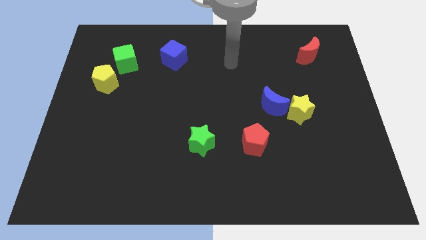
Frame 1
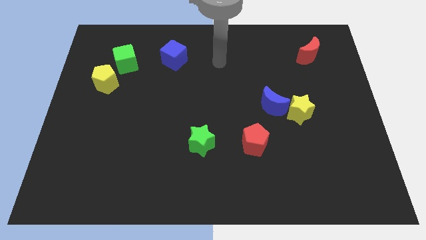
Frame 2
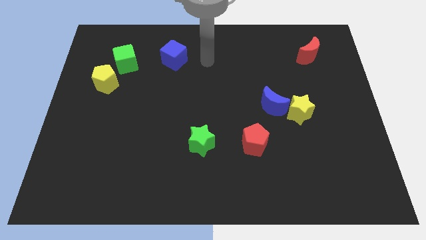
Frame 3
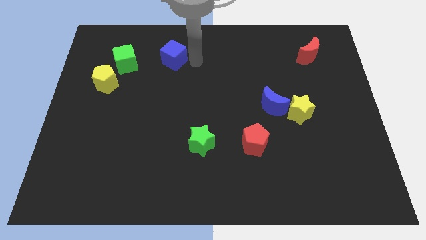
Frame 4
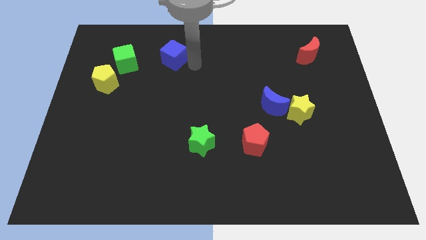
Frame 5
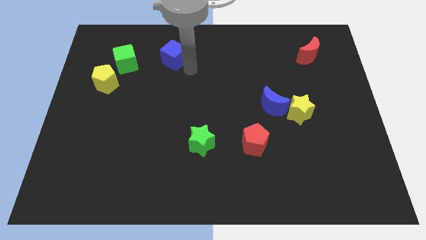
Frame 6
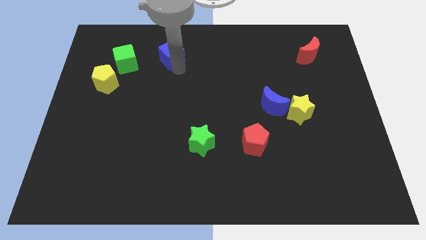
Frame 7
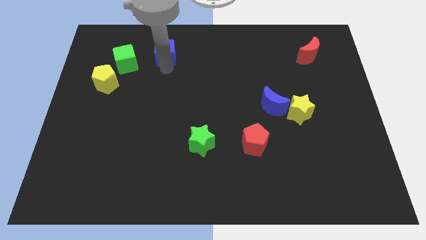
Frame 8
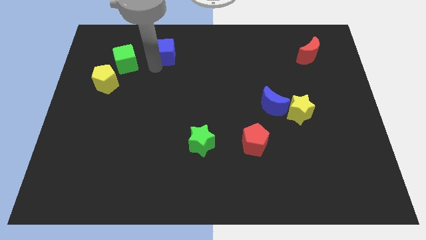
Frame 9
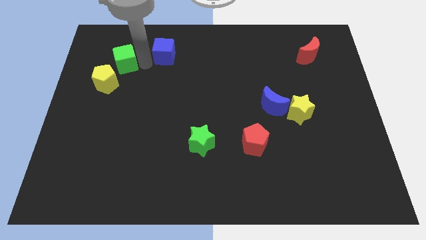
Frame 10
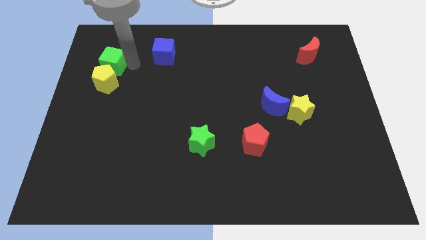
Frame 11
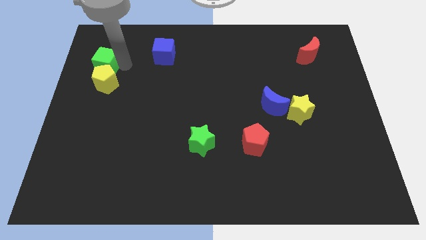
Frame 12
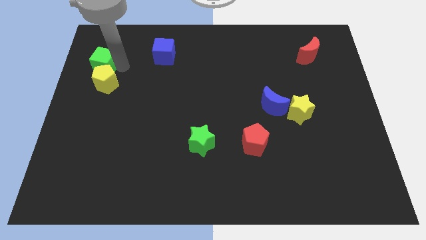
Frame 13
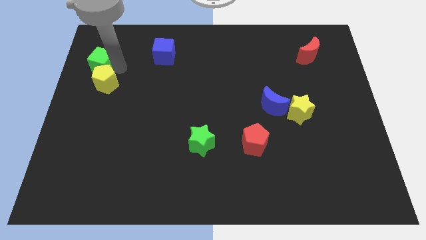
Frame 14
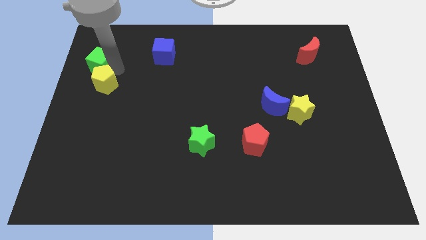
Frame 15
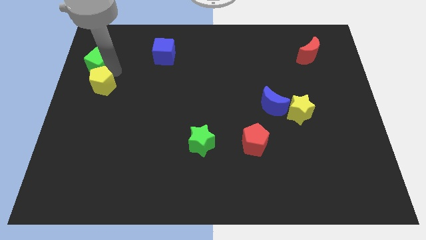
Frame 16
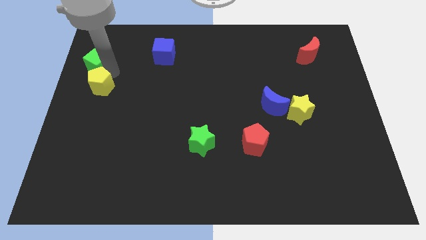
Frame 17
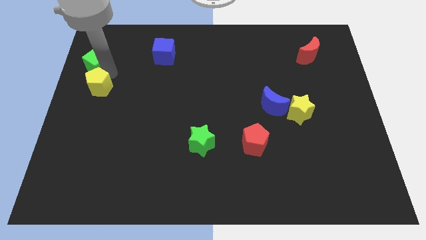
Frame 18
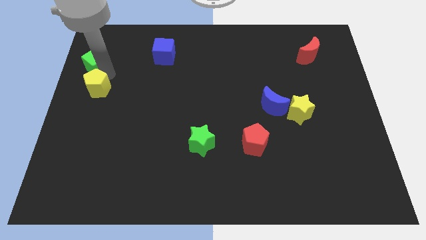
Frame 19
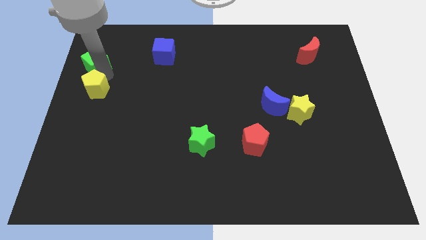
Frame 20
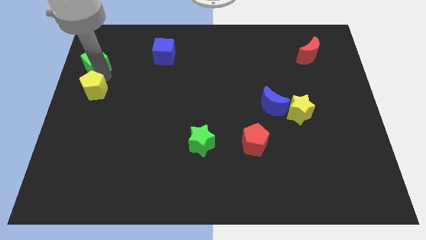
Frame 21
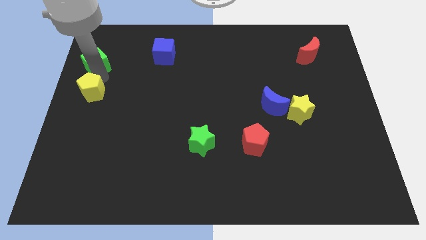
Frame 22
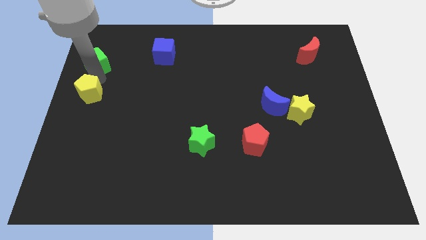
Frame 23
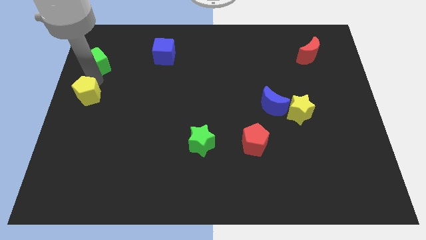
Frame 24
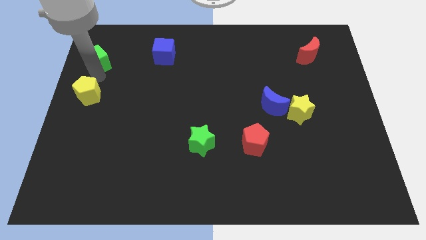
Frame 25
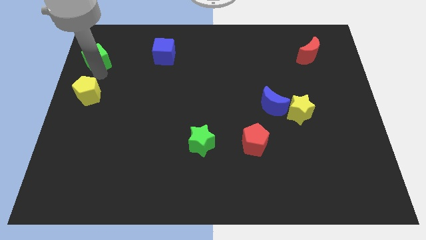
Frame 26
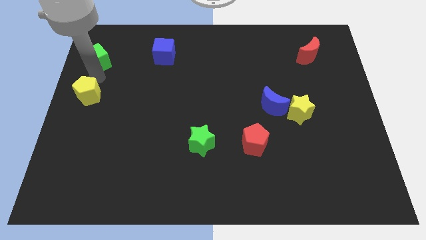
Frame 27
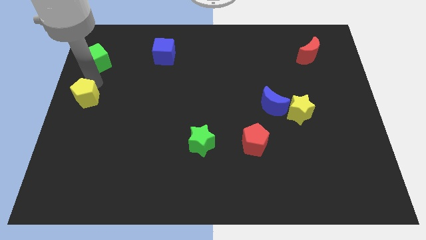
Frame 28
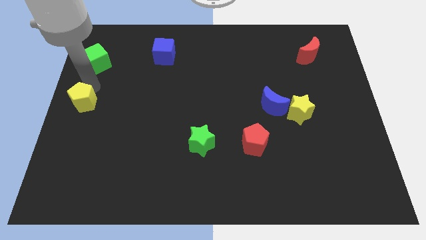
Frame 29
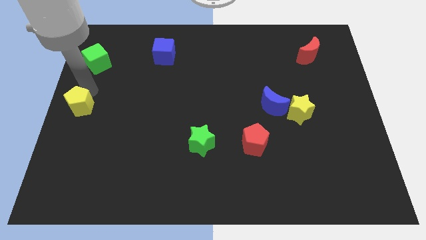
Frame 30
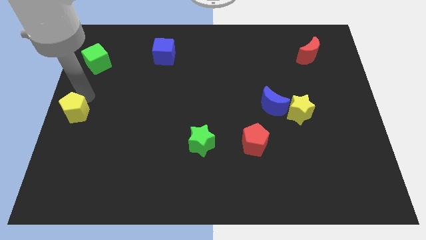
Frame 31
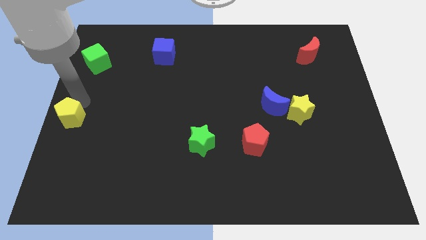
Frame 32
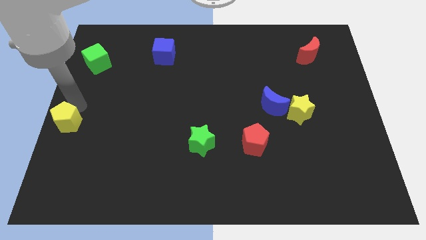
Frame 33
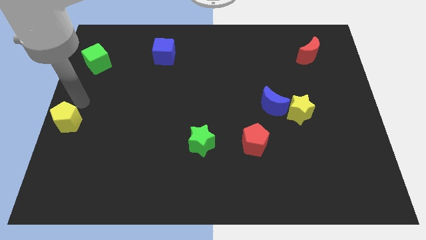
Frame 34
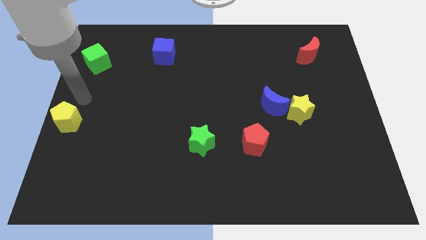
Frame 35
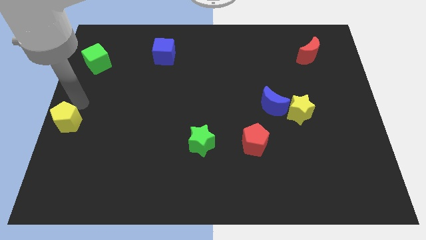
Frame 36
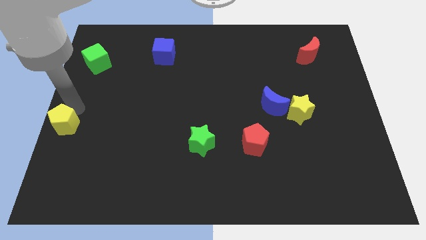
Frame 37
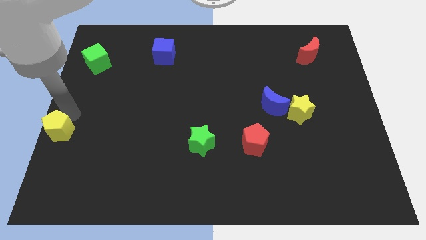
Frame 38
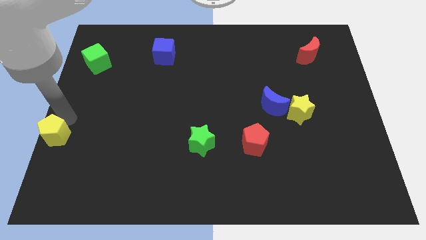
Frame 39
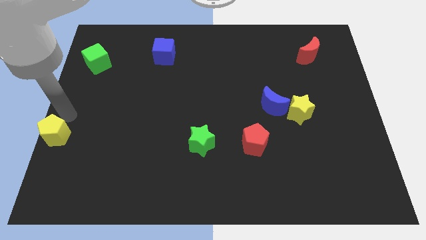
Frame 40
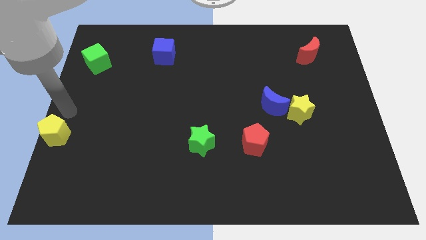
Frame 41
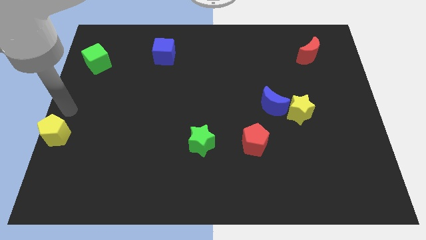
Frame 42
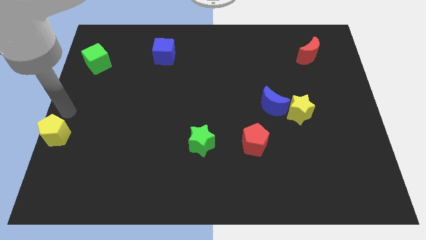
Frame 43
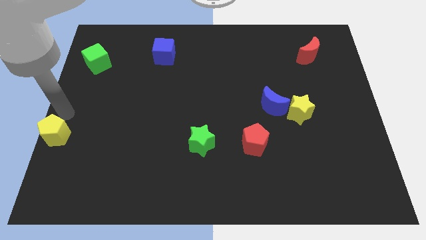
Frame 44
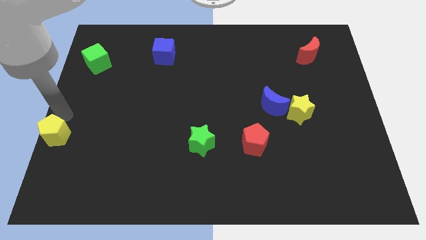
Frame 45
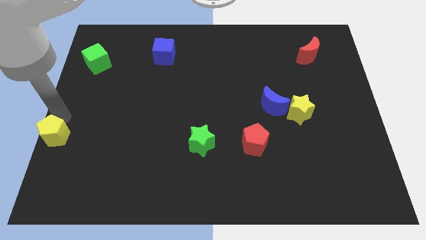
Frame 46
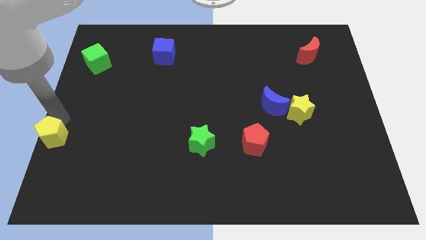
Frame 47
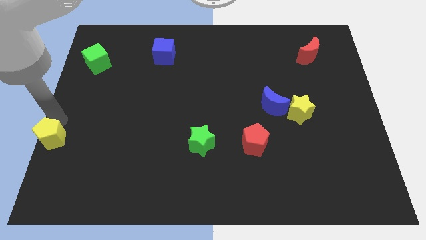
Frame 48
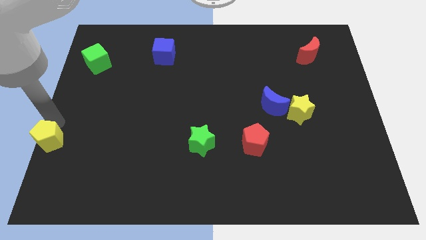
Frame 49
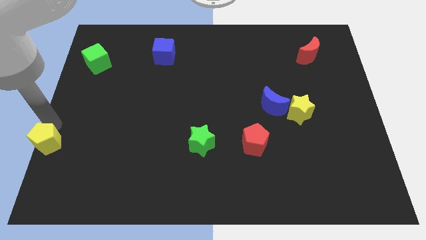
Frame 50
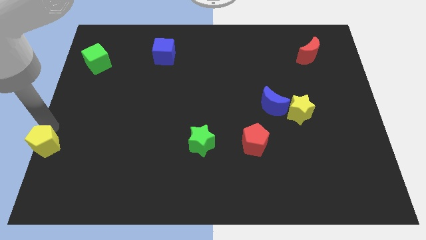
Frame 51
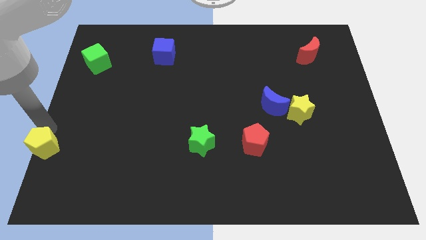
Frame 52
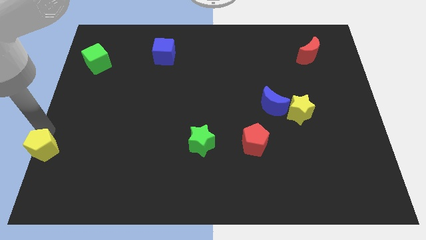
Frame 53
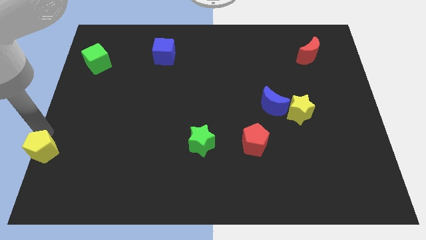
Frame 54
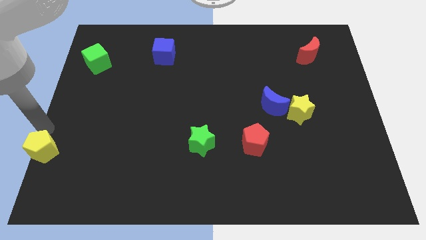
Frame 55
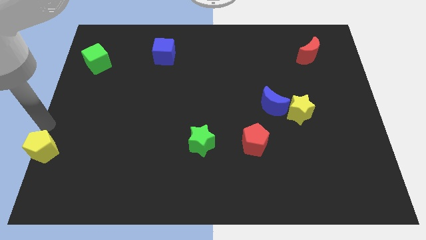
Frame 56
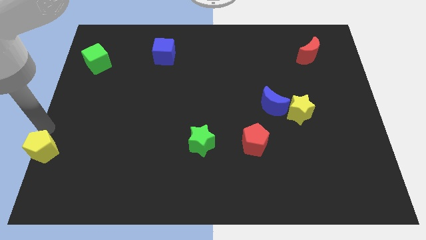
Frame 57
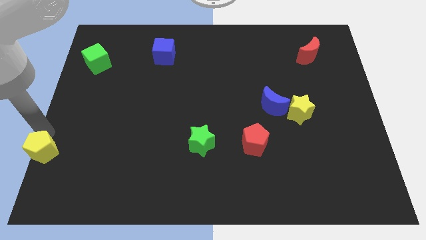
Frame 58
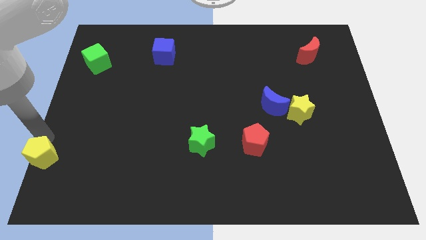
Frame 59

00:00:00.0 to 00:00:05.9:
move the yellow pentagon to the bottom left

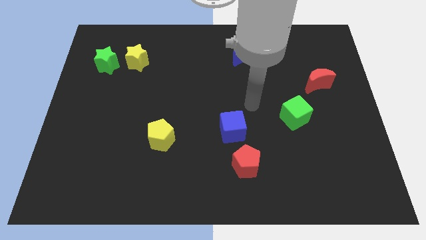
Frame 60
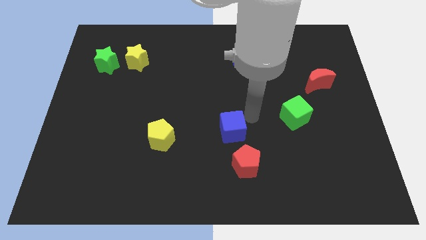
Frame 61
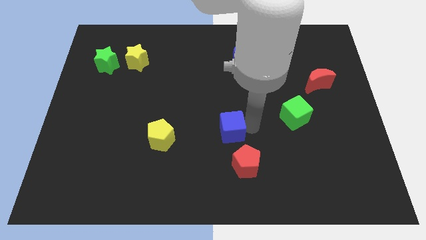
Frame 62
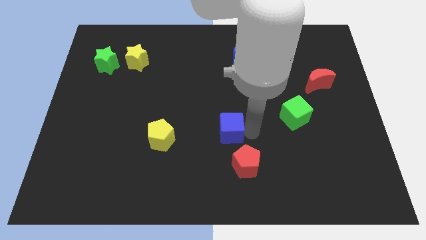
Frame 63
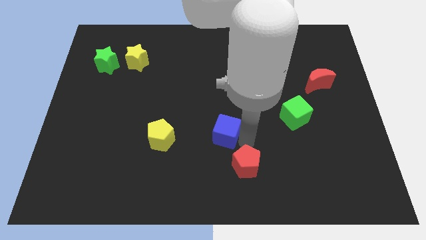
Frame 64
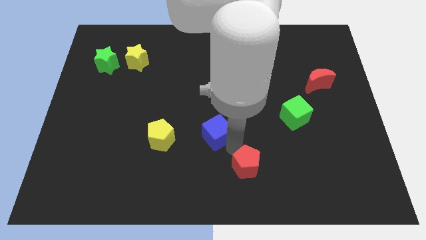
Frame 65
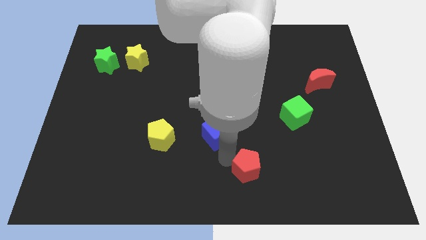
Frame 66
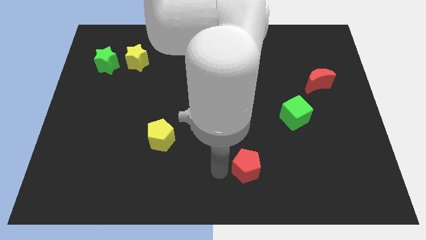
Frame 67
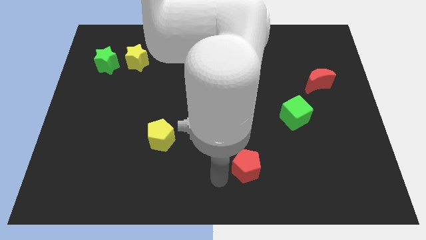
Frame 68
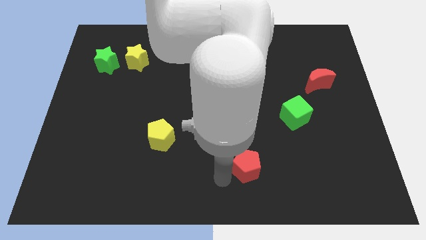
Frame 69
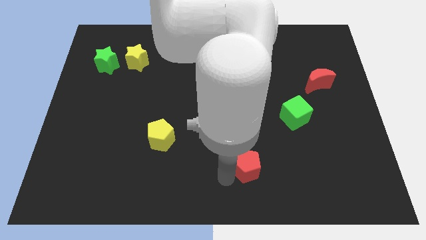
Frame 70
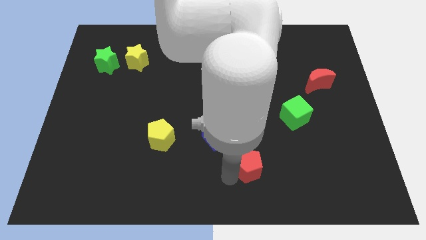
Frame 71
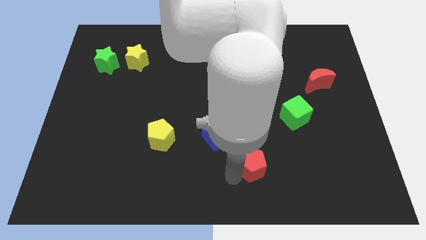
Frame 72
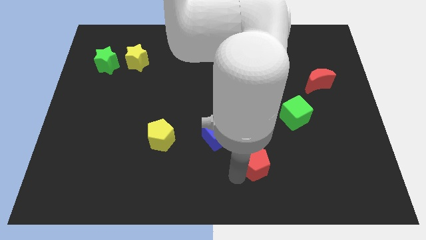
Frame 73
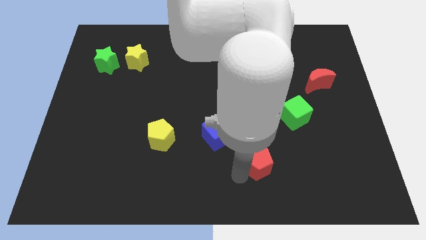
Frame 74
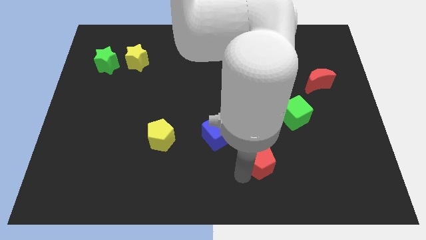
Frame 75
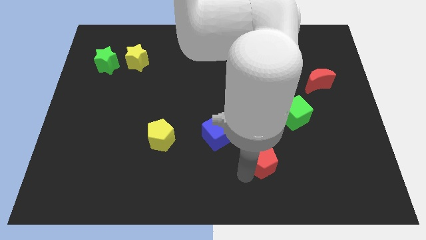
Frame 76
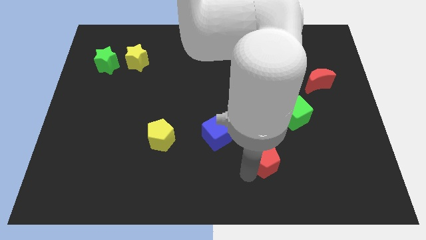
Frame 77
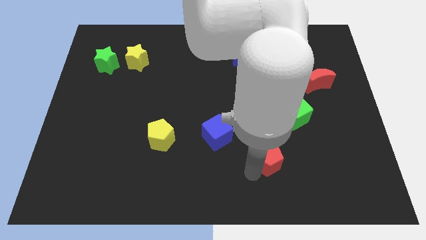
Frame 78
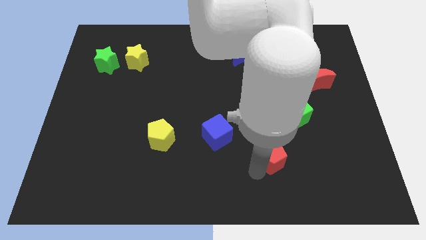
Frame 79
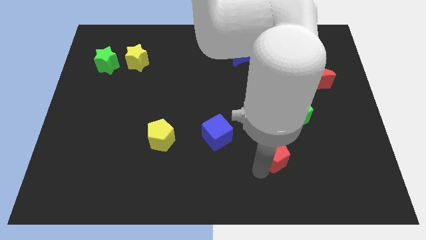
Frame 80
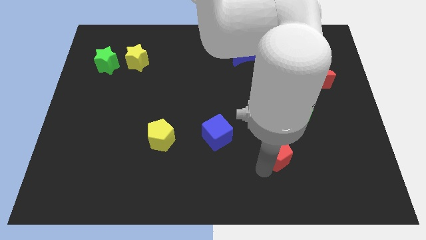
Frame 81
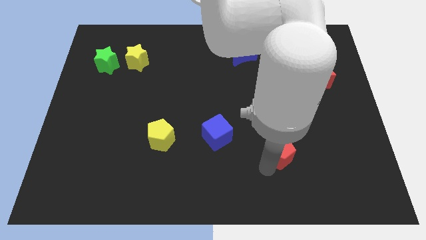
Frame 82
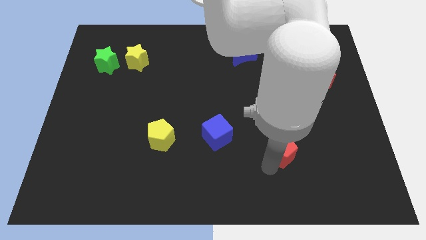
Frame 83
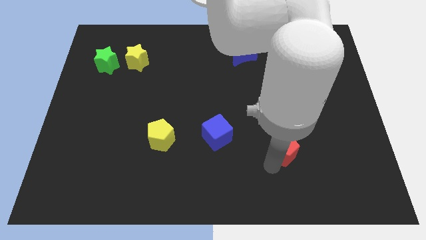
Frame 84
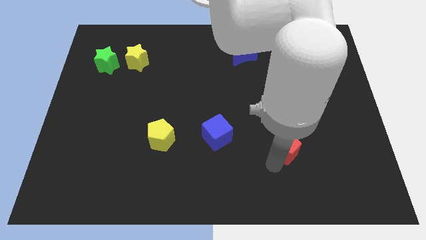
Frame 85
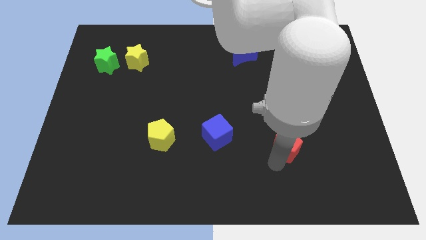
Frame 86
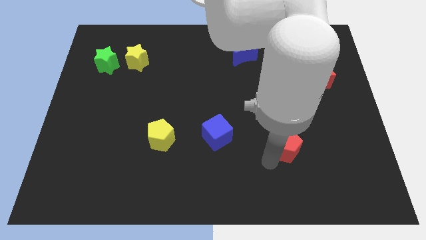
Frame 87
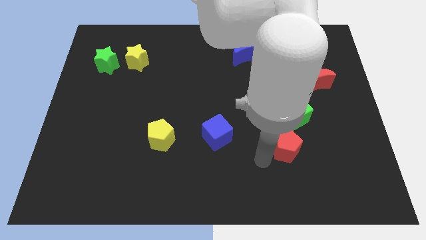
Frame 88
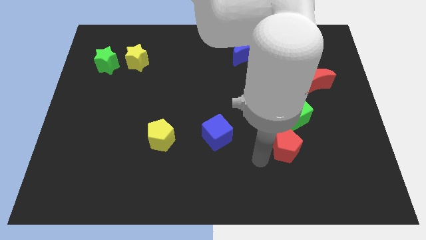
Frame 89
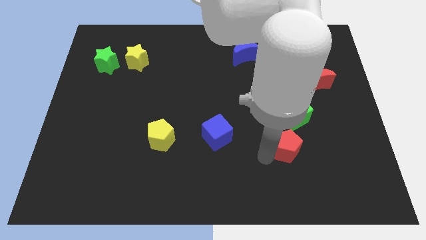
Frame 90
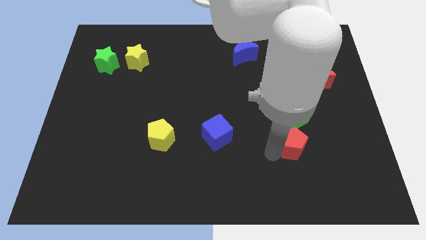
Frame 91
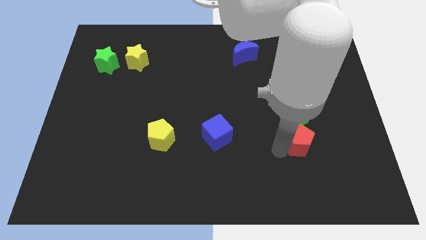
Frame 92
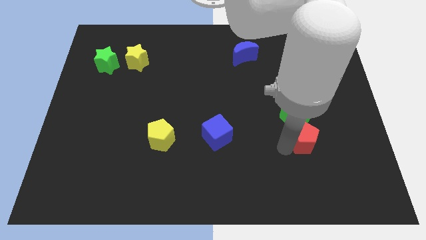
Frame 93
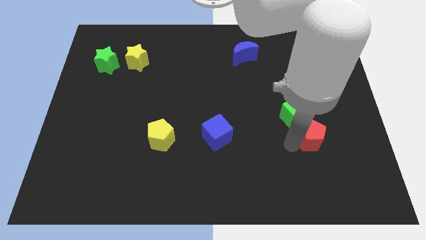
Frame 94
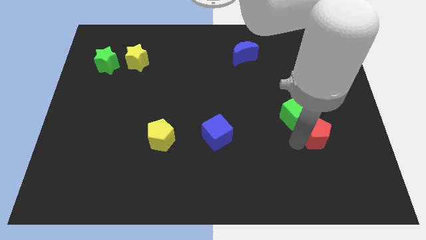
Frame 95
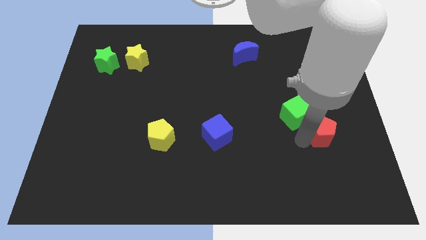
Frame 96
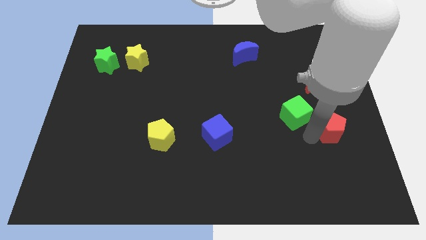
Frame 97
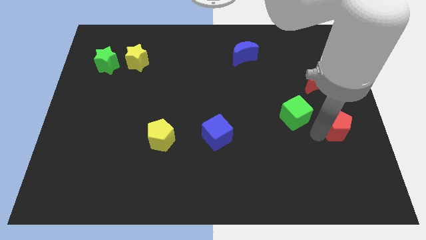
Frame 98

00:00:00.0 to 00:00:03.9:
put the red pentagon to the right side
